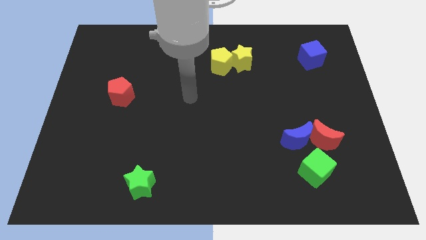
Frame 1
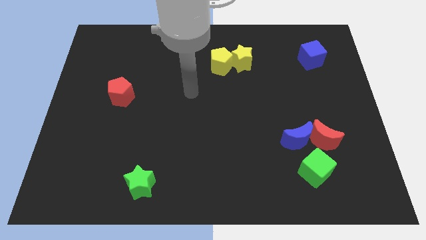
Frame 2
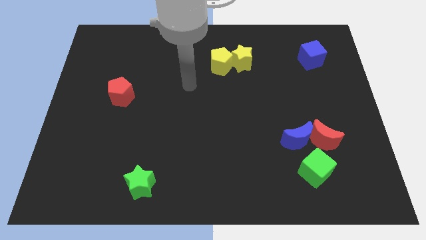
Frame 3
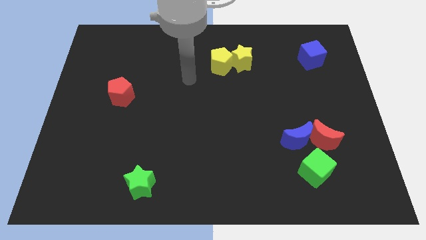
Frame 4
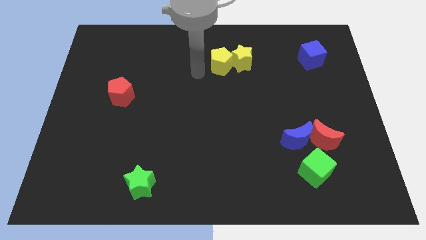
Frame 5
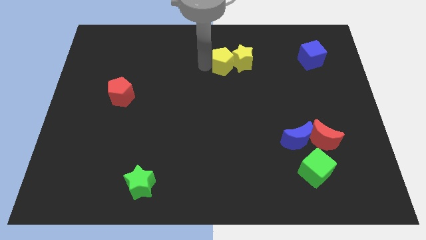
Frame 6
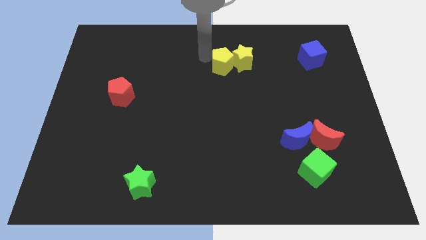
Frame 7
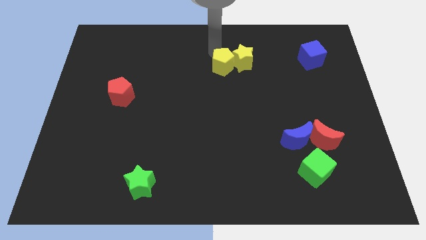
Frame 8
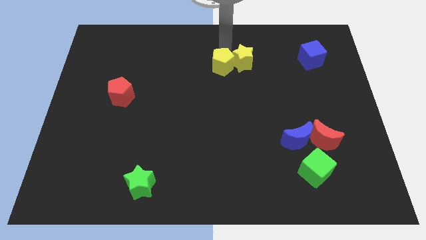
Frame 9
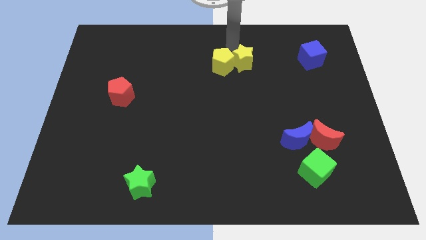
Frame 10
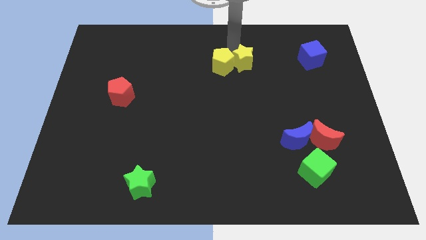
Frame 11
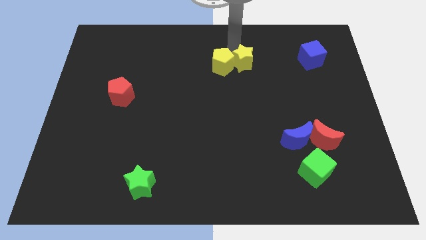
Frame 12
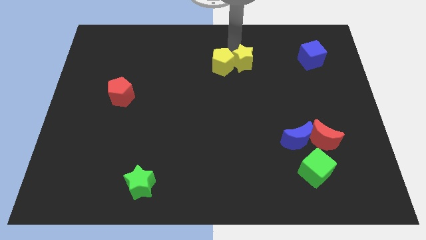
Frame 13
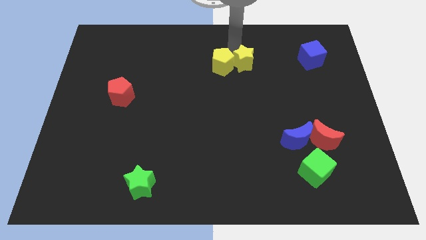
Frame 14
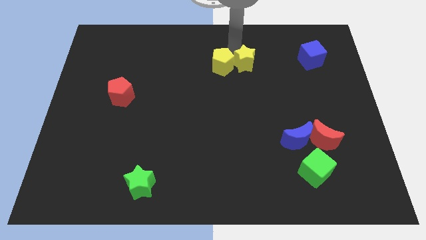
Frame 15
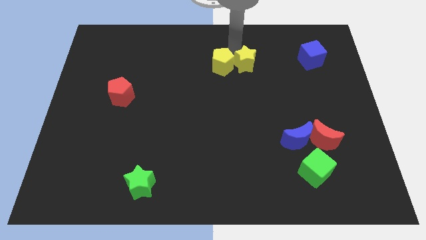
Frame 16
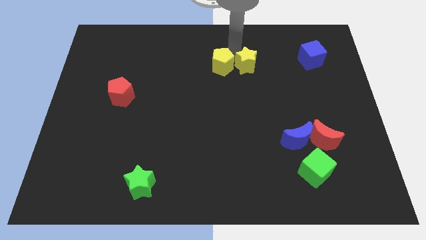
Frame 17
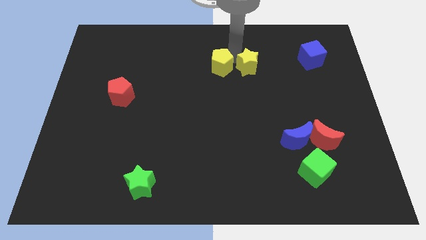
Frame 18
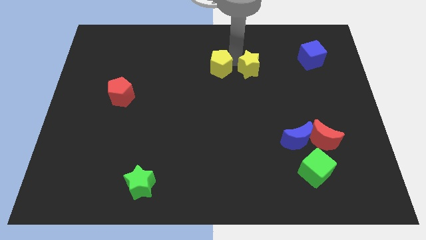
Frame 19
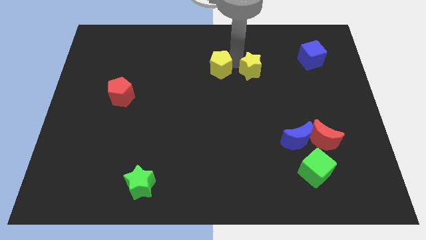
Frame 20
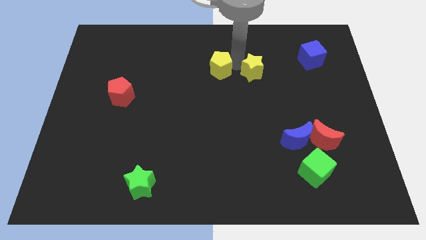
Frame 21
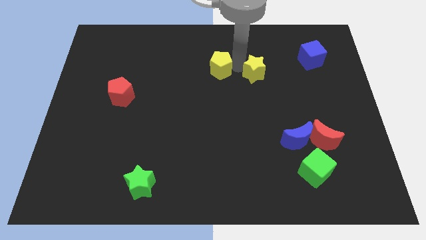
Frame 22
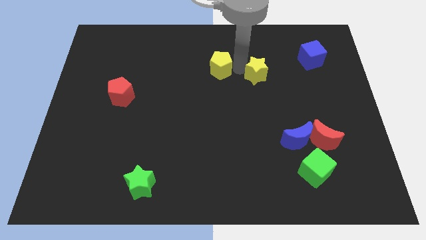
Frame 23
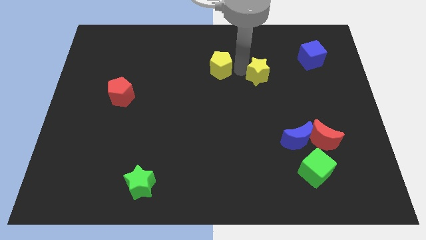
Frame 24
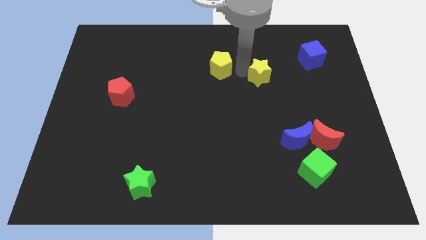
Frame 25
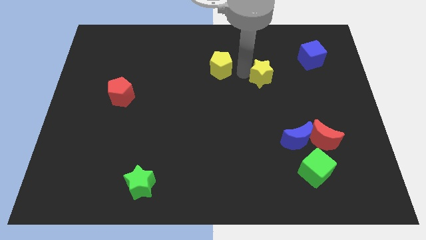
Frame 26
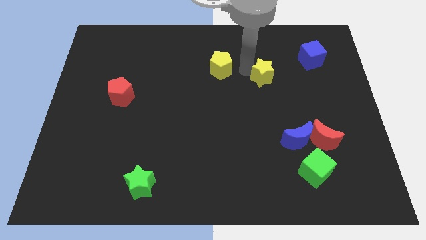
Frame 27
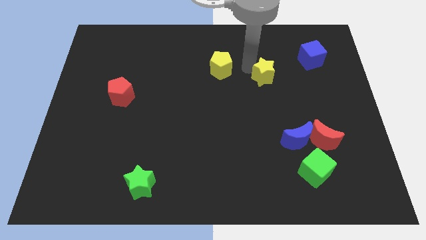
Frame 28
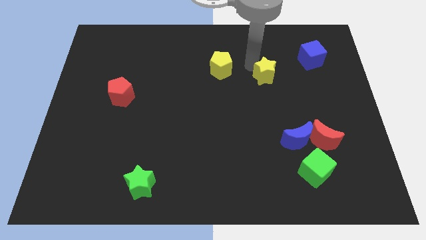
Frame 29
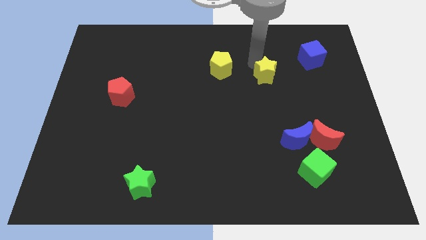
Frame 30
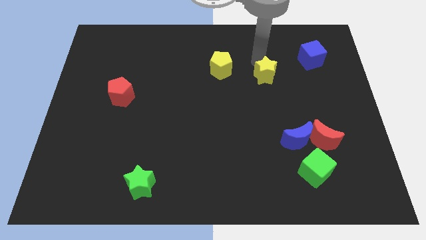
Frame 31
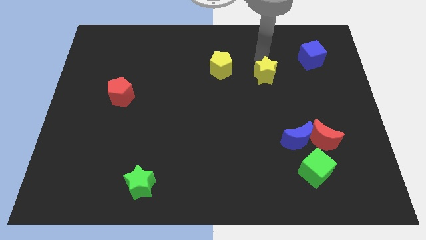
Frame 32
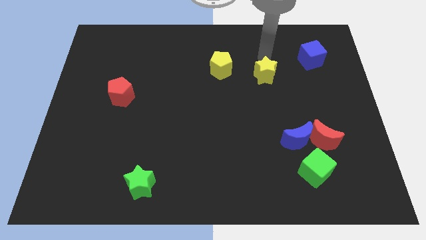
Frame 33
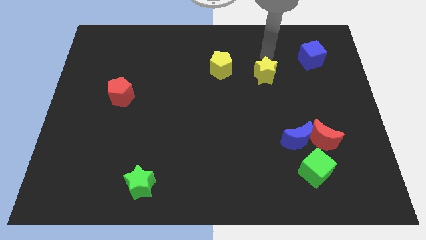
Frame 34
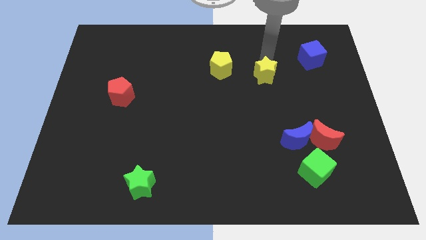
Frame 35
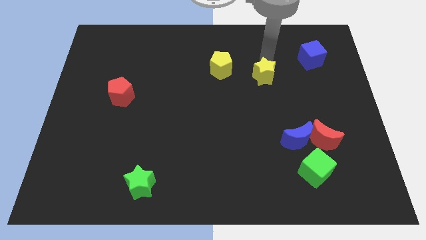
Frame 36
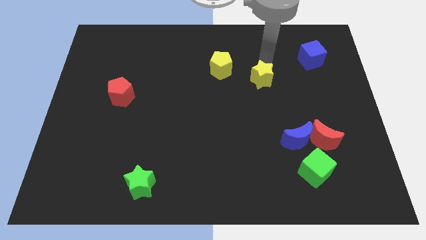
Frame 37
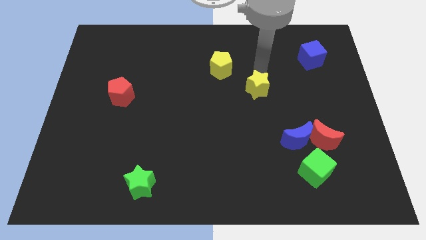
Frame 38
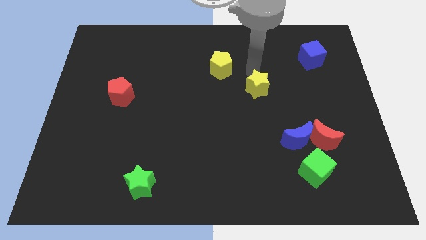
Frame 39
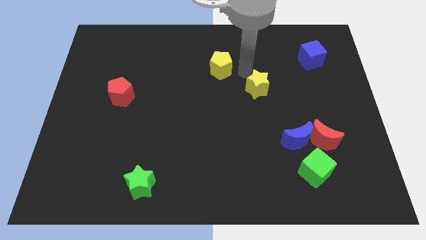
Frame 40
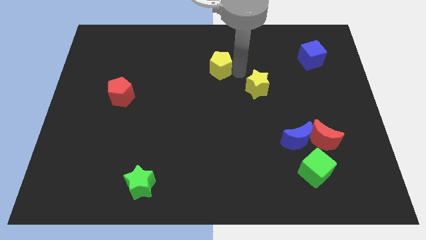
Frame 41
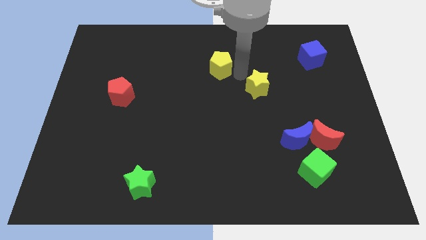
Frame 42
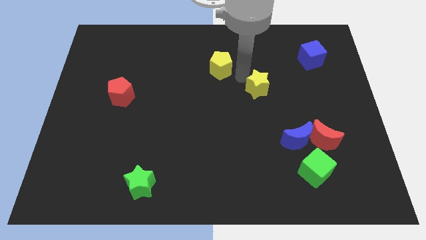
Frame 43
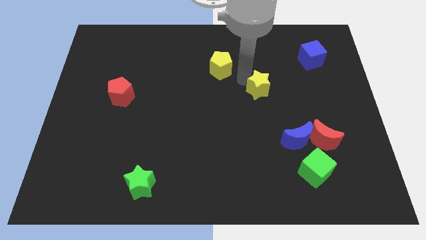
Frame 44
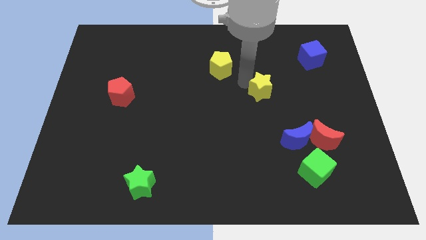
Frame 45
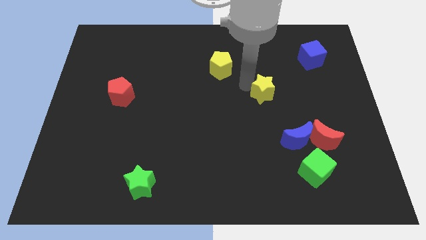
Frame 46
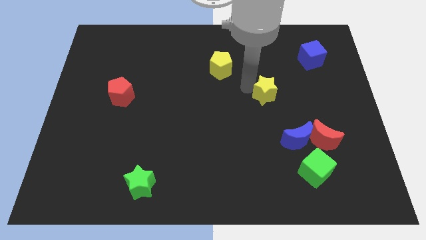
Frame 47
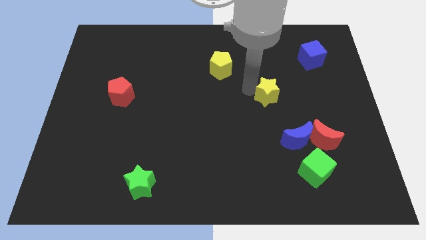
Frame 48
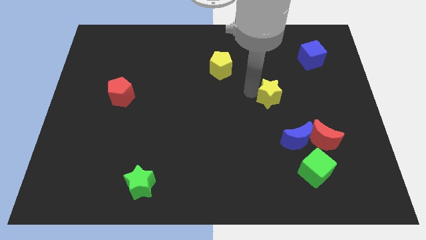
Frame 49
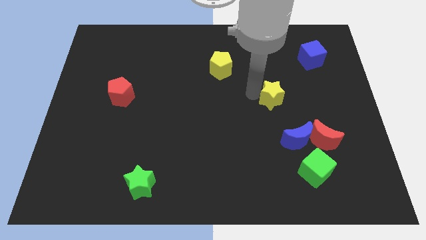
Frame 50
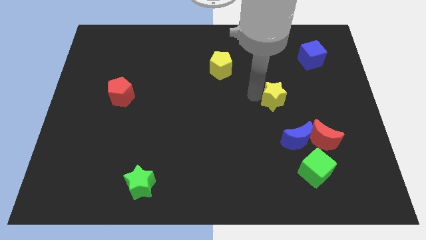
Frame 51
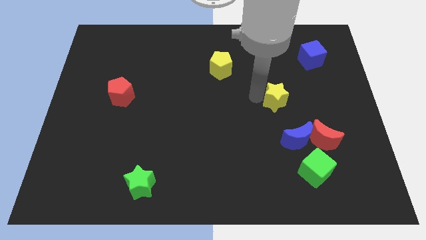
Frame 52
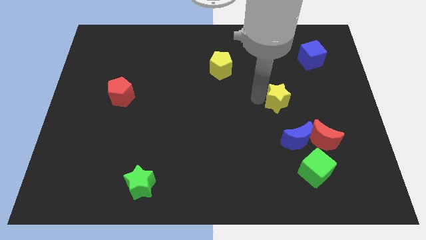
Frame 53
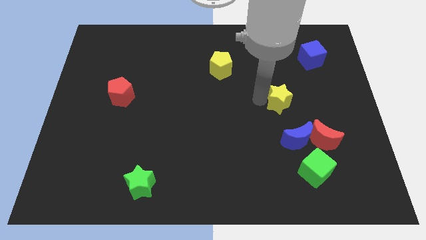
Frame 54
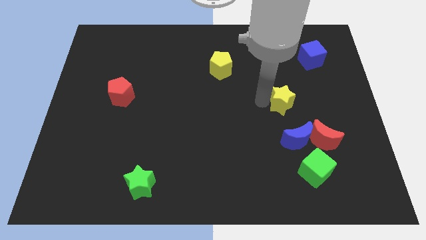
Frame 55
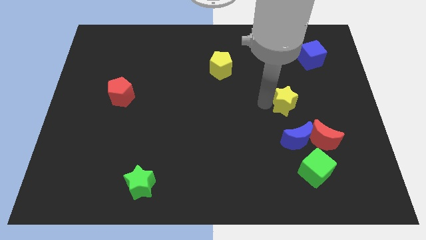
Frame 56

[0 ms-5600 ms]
push the yellow star to the top left side of the red moon

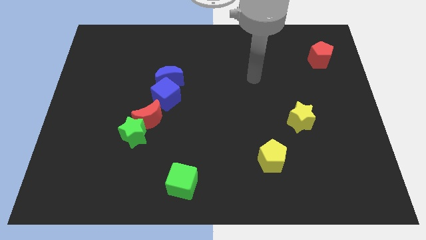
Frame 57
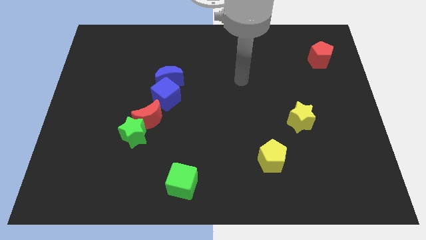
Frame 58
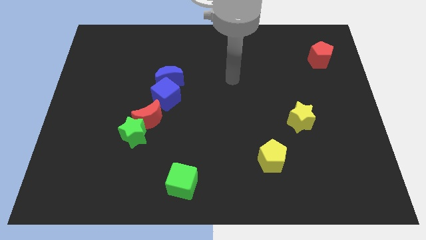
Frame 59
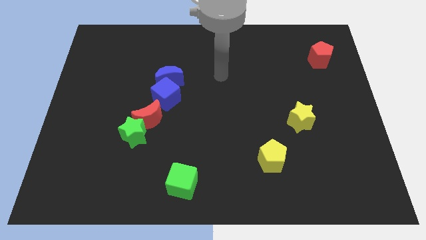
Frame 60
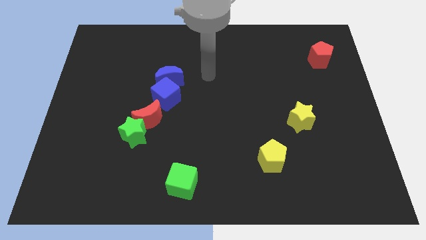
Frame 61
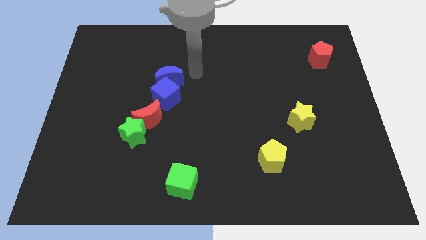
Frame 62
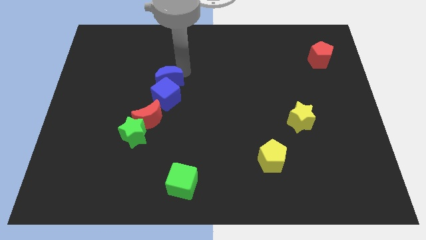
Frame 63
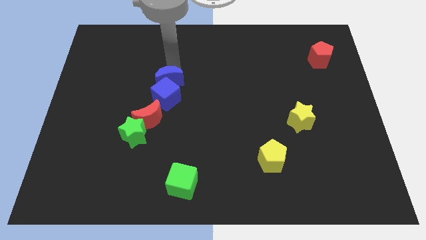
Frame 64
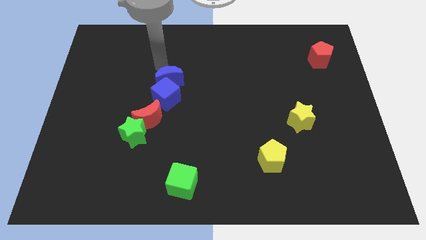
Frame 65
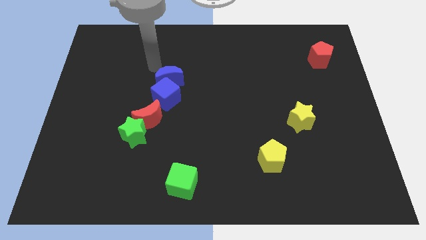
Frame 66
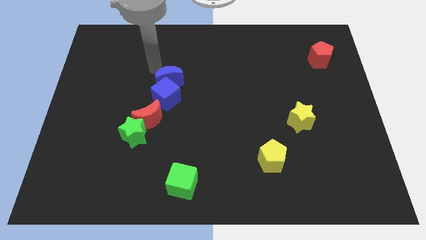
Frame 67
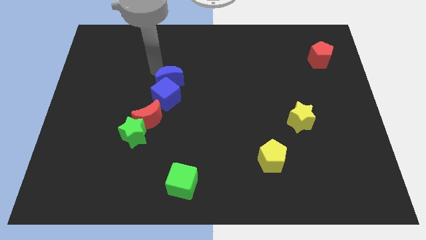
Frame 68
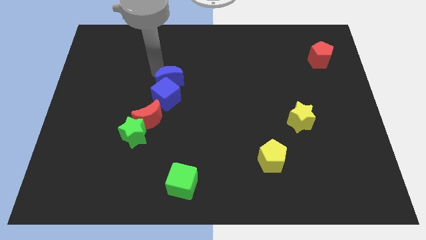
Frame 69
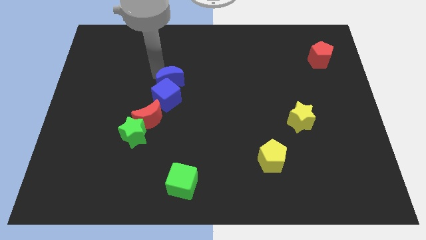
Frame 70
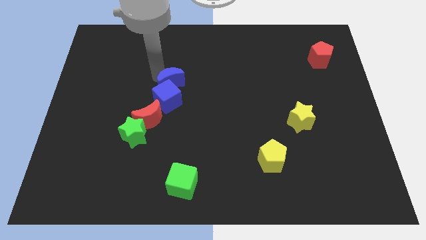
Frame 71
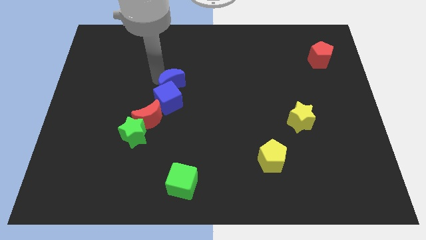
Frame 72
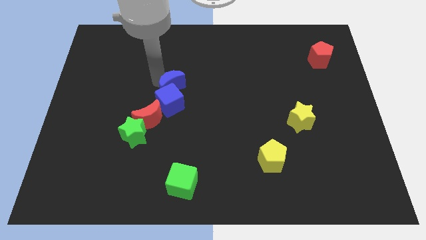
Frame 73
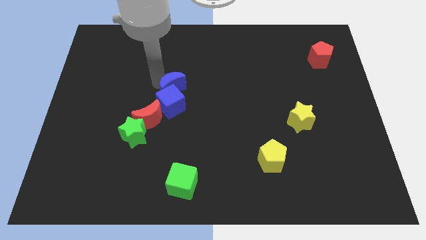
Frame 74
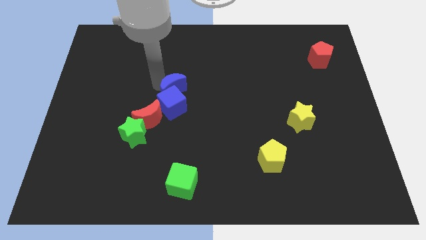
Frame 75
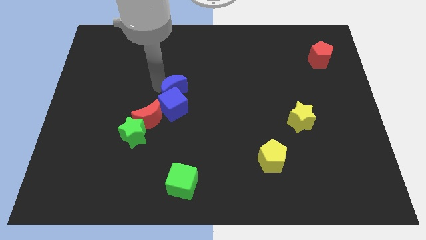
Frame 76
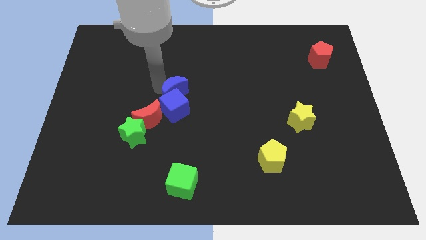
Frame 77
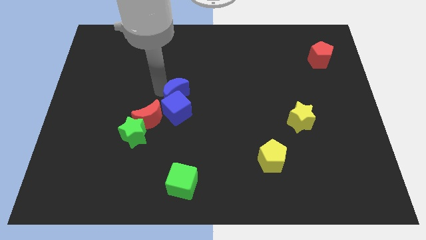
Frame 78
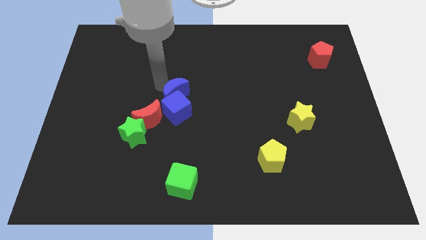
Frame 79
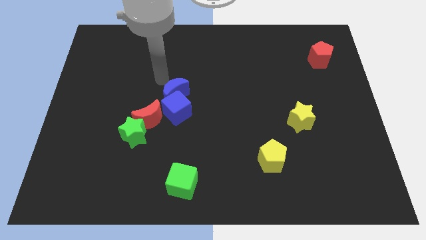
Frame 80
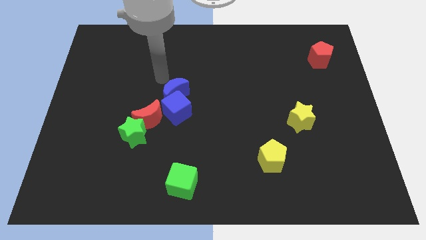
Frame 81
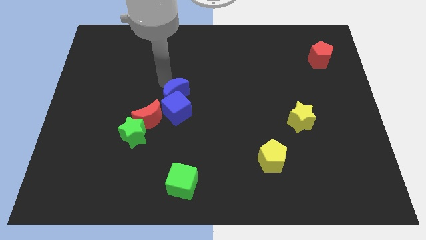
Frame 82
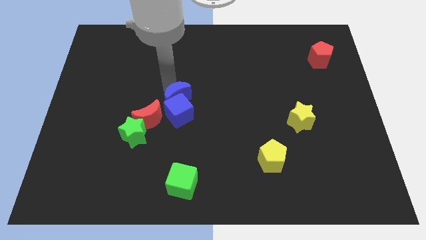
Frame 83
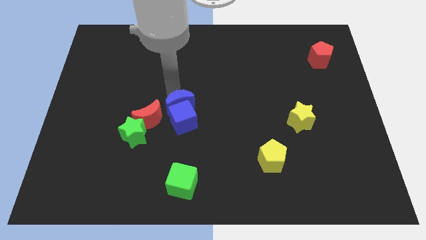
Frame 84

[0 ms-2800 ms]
slide the blue moon to the right of the red moon

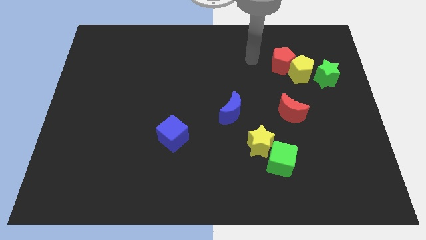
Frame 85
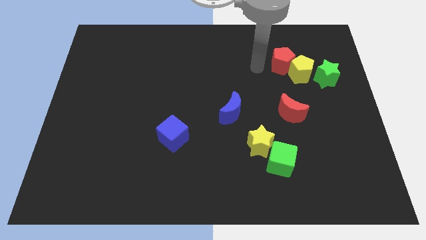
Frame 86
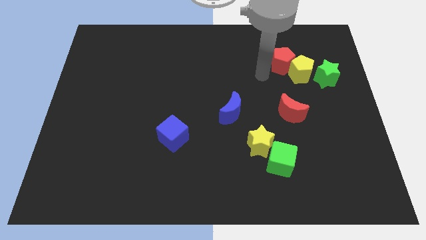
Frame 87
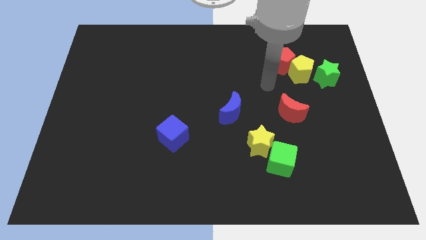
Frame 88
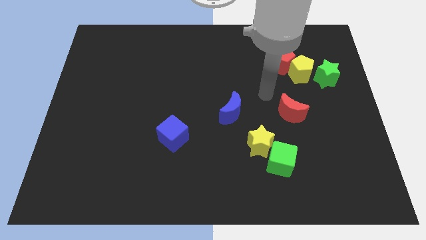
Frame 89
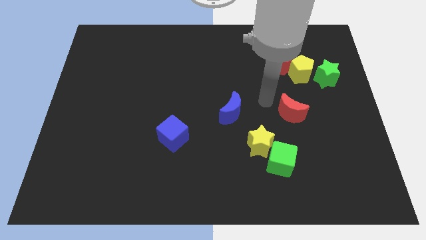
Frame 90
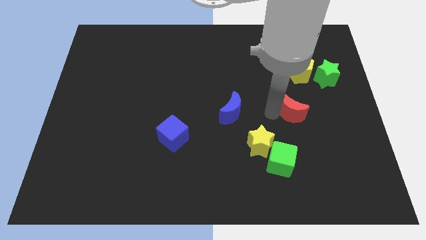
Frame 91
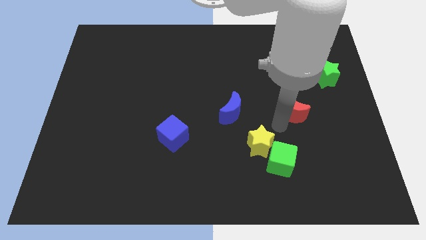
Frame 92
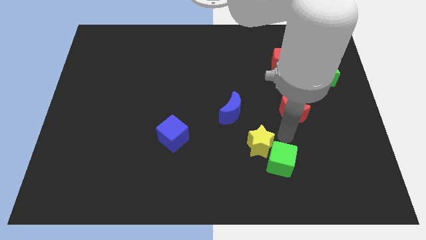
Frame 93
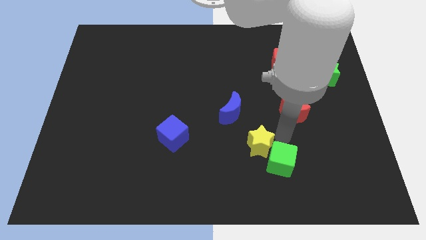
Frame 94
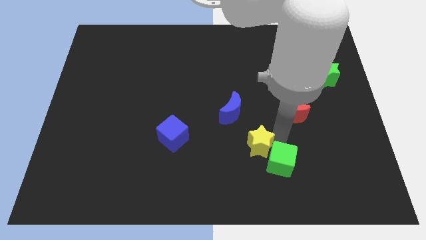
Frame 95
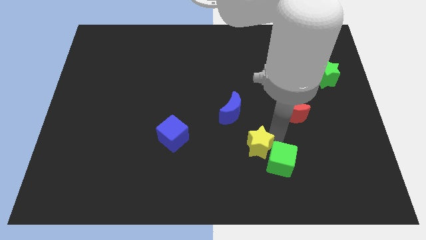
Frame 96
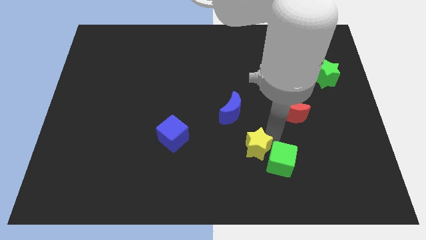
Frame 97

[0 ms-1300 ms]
push the yellow star to the bottom of the blue moon
